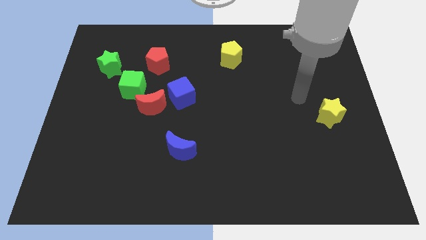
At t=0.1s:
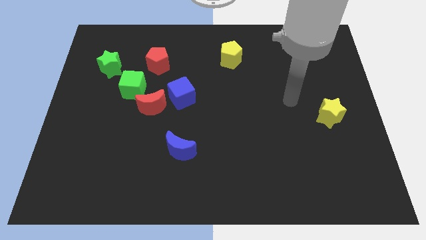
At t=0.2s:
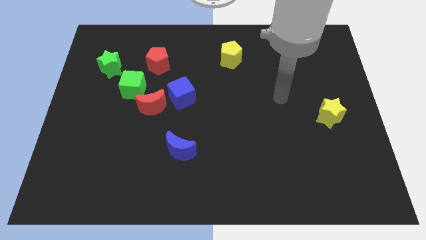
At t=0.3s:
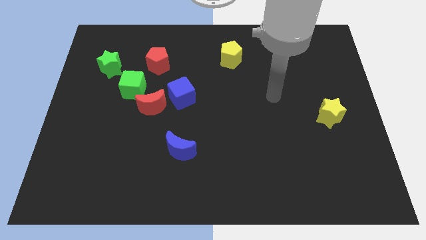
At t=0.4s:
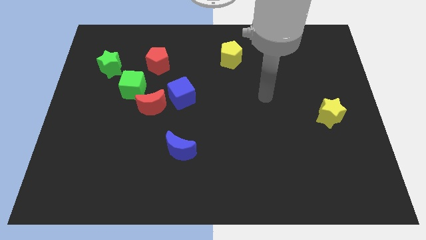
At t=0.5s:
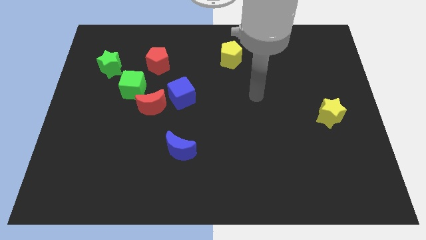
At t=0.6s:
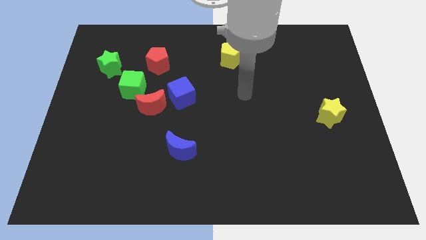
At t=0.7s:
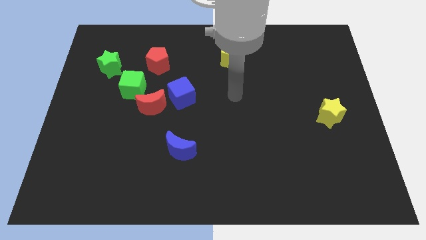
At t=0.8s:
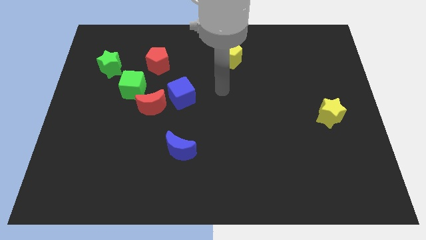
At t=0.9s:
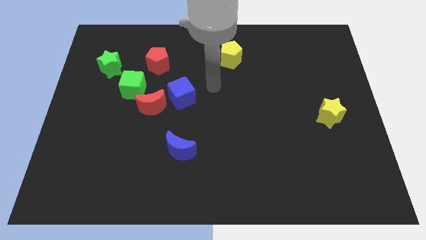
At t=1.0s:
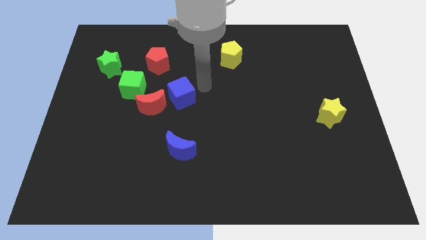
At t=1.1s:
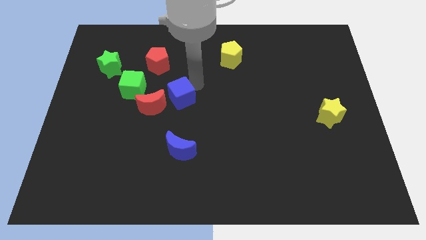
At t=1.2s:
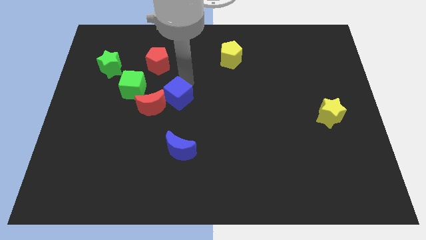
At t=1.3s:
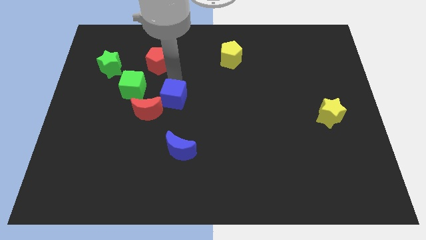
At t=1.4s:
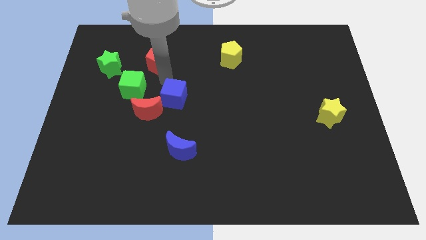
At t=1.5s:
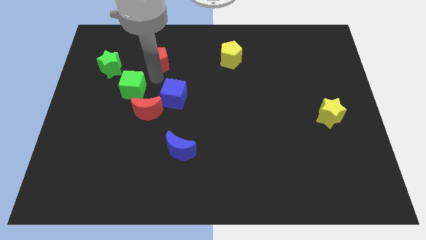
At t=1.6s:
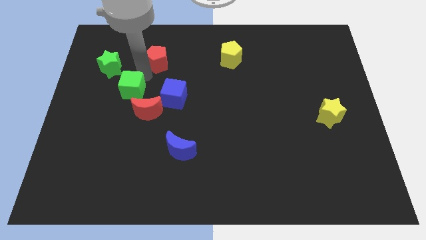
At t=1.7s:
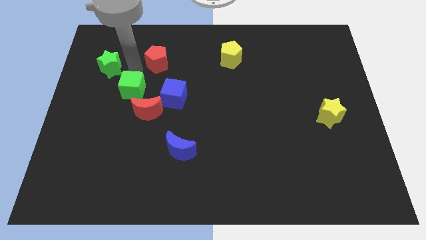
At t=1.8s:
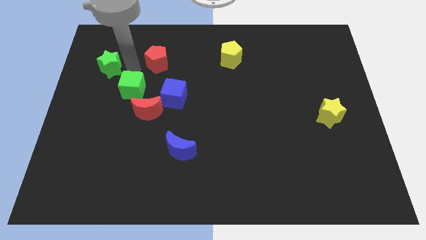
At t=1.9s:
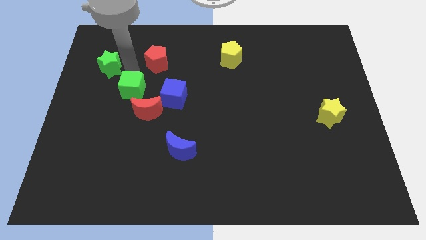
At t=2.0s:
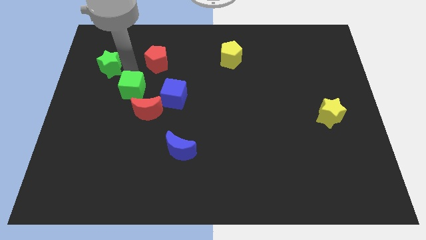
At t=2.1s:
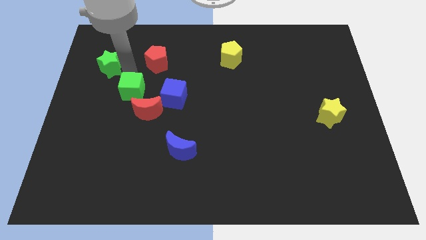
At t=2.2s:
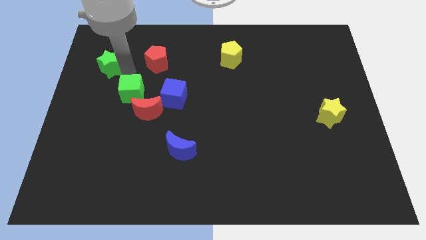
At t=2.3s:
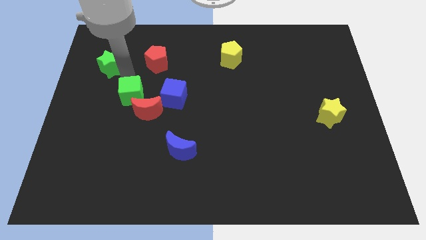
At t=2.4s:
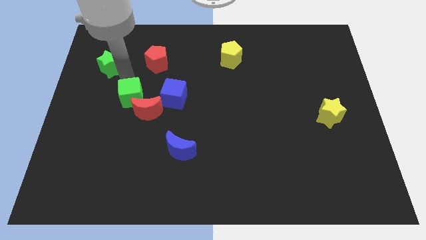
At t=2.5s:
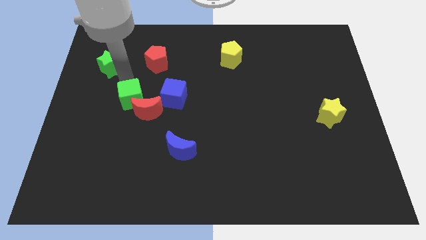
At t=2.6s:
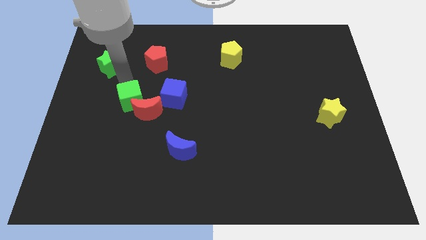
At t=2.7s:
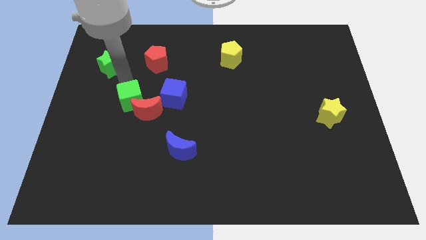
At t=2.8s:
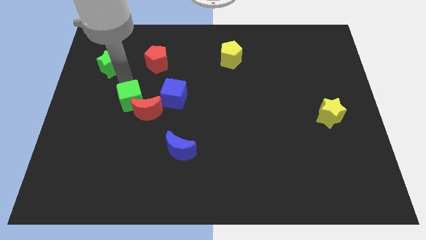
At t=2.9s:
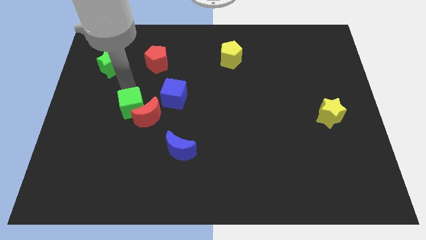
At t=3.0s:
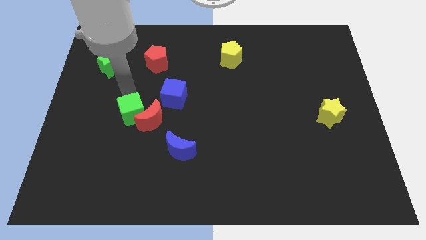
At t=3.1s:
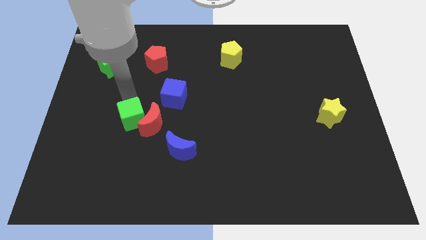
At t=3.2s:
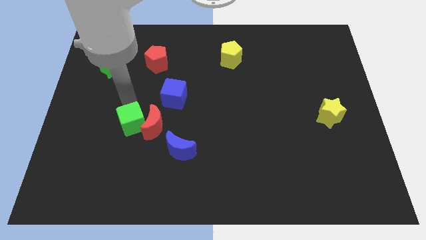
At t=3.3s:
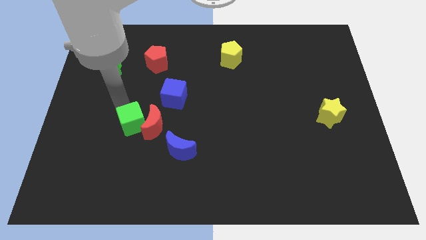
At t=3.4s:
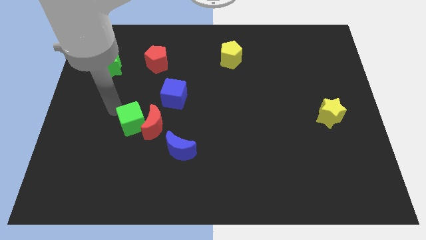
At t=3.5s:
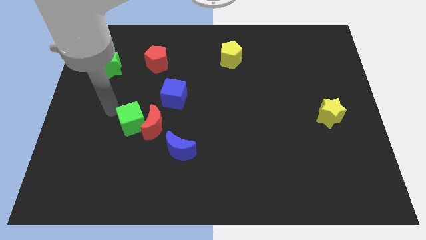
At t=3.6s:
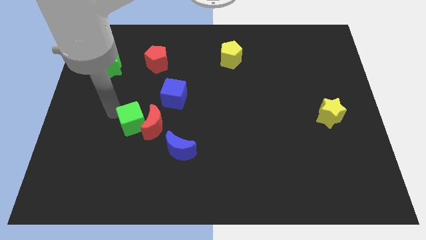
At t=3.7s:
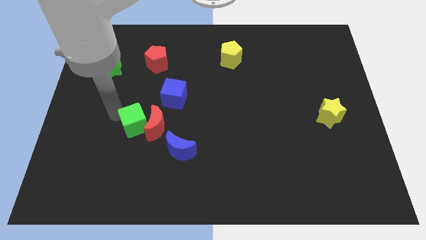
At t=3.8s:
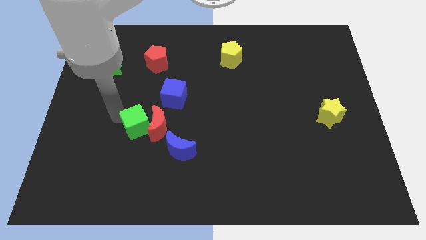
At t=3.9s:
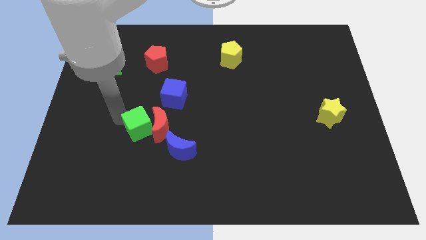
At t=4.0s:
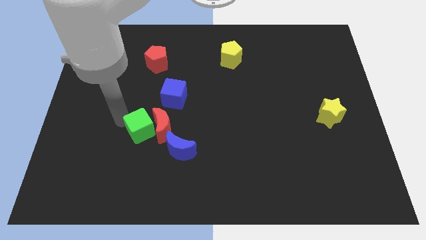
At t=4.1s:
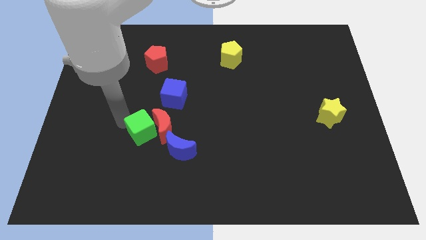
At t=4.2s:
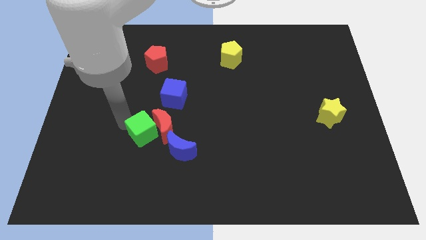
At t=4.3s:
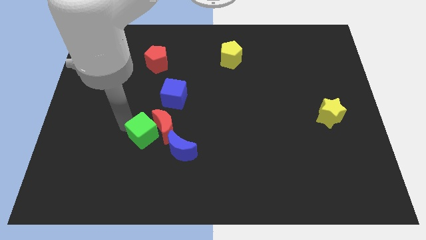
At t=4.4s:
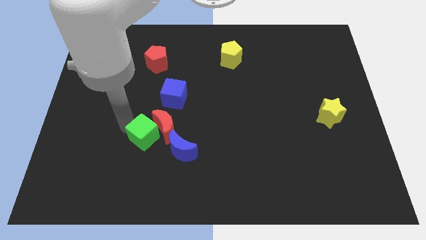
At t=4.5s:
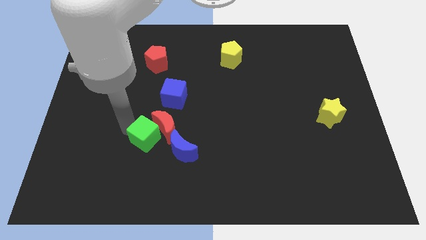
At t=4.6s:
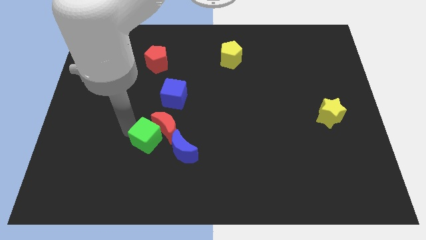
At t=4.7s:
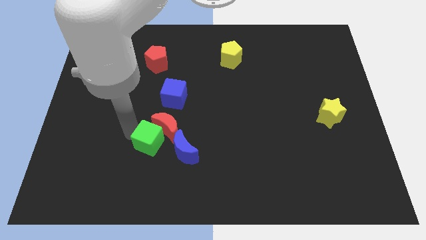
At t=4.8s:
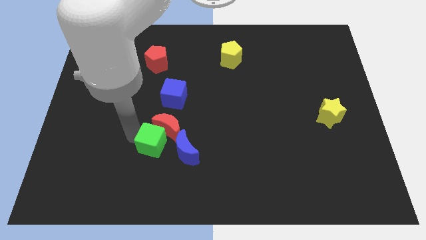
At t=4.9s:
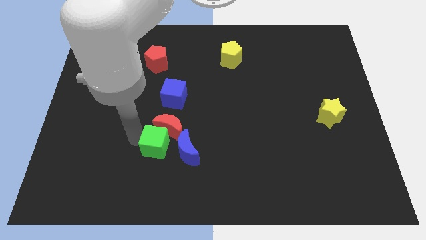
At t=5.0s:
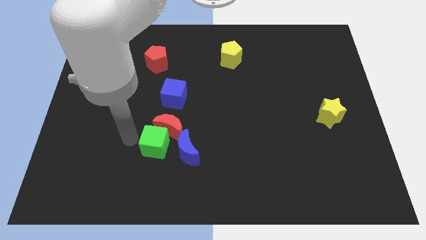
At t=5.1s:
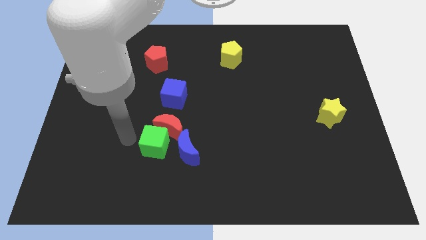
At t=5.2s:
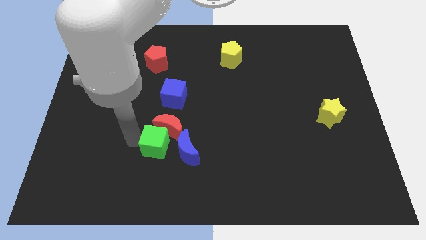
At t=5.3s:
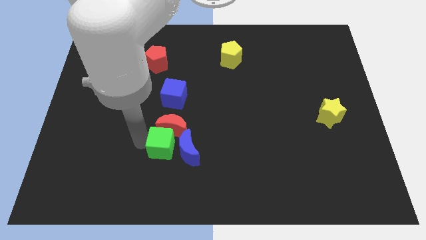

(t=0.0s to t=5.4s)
slide the green cube close to the blue moon

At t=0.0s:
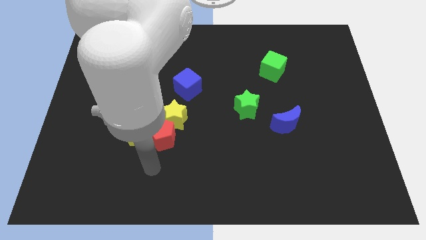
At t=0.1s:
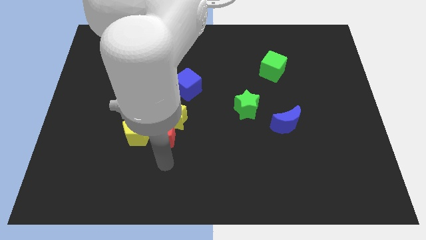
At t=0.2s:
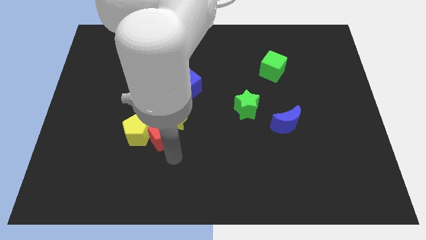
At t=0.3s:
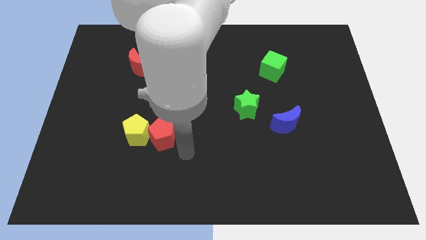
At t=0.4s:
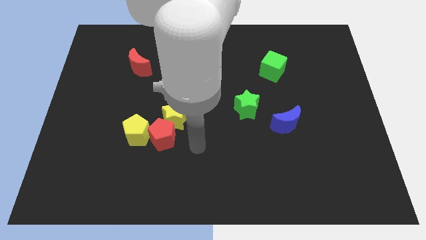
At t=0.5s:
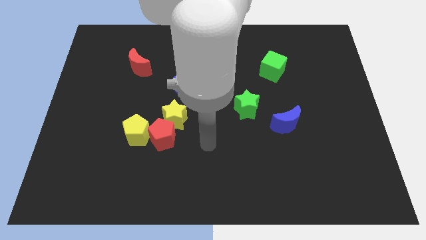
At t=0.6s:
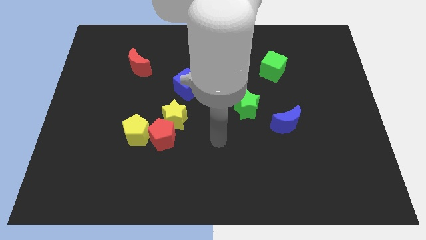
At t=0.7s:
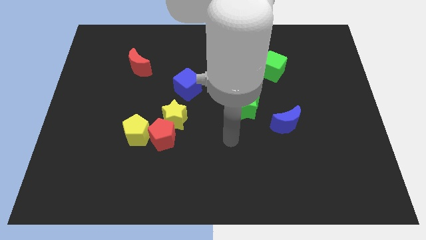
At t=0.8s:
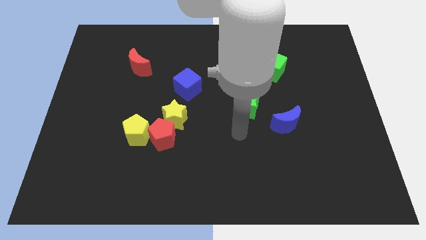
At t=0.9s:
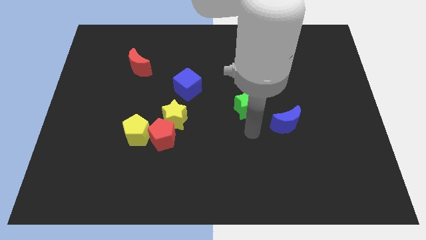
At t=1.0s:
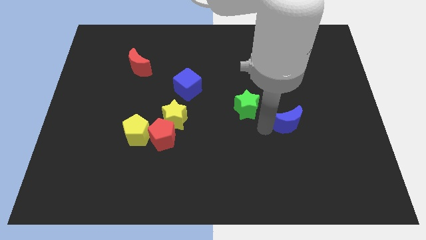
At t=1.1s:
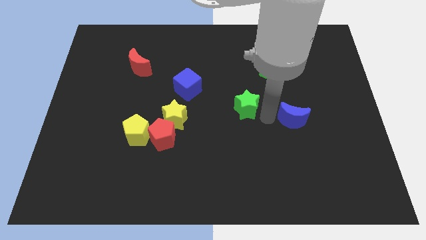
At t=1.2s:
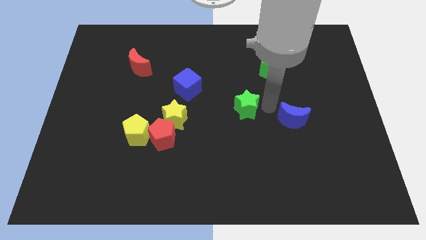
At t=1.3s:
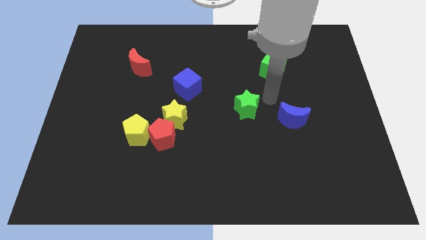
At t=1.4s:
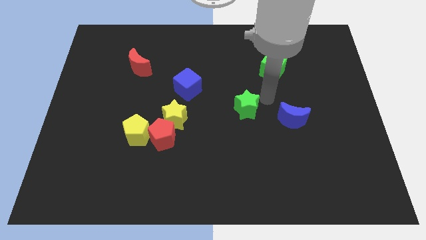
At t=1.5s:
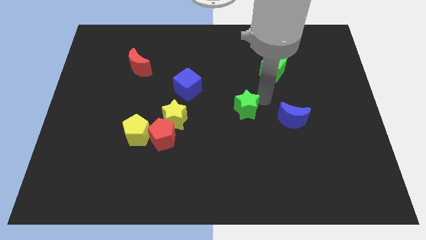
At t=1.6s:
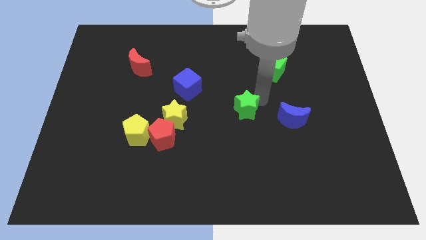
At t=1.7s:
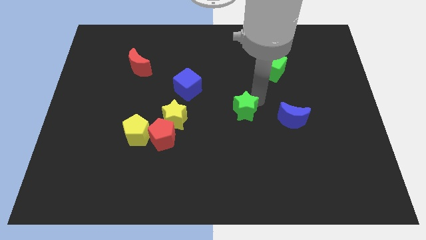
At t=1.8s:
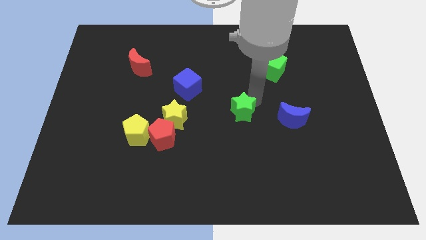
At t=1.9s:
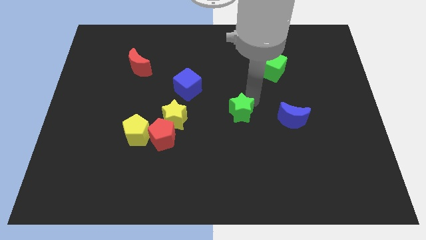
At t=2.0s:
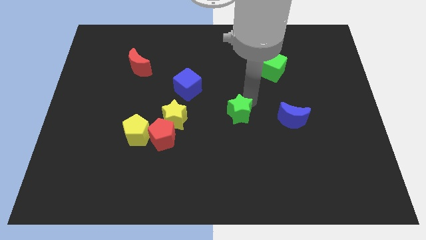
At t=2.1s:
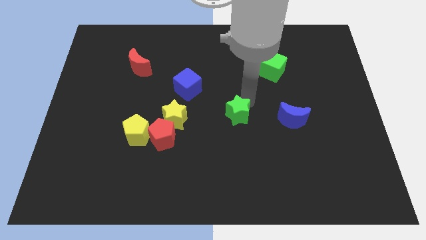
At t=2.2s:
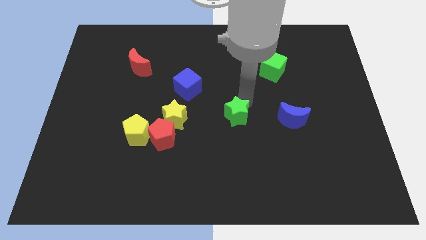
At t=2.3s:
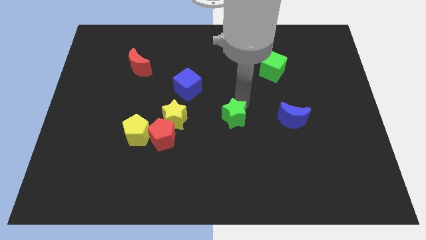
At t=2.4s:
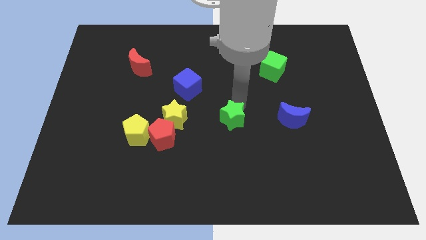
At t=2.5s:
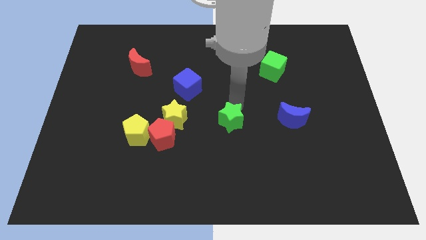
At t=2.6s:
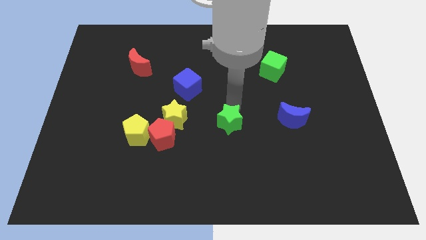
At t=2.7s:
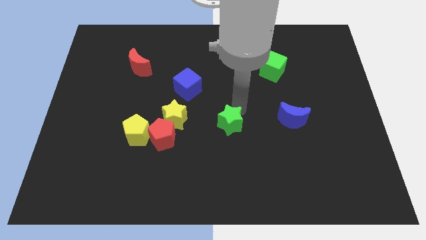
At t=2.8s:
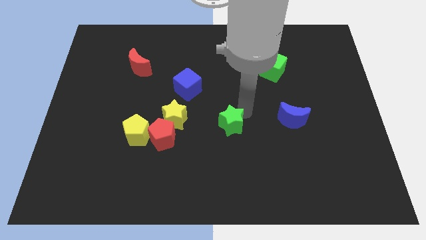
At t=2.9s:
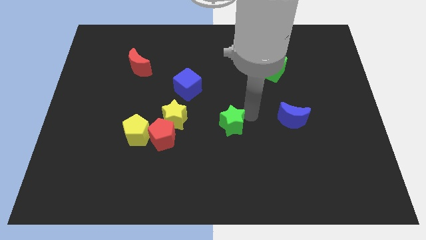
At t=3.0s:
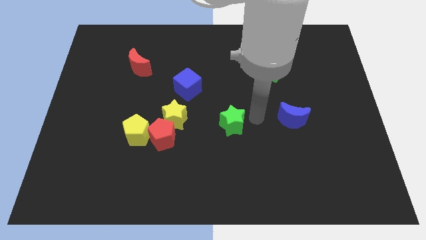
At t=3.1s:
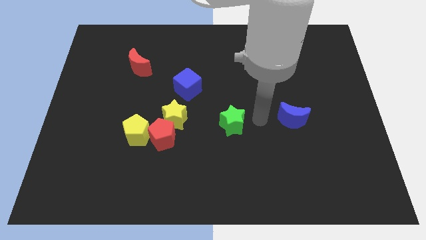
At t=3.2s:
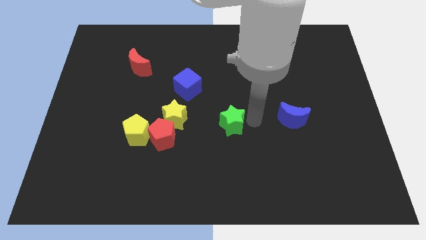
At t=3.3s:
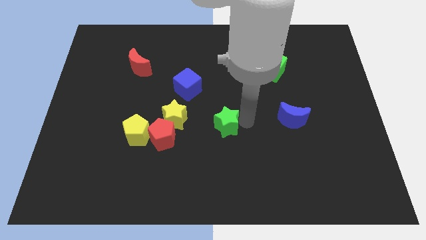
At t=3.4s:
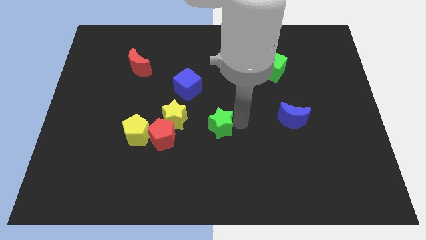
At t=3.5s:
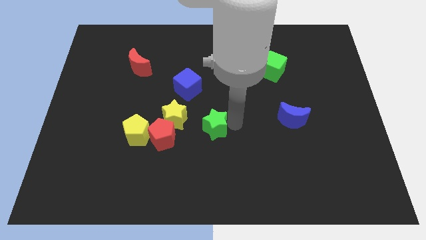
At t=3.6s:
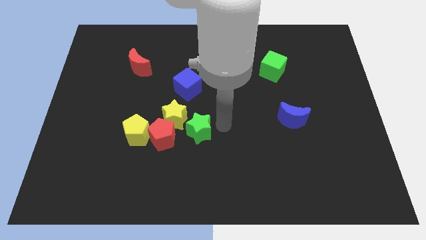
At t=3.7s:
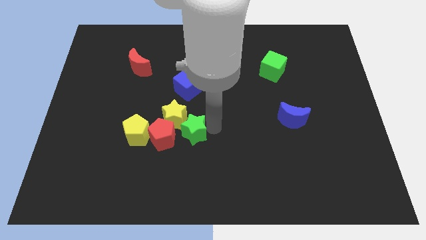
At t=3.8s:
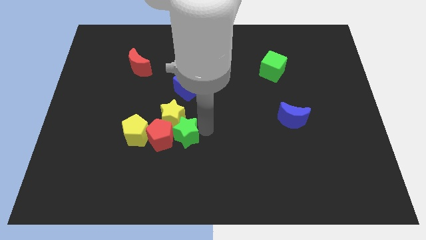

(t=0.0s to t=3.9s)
move the green star close to the red pentagon
